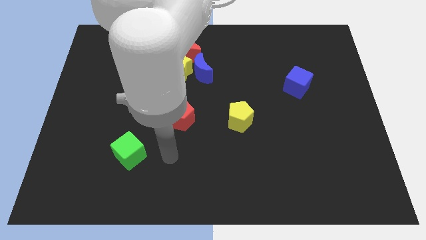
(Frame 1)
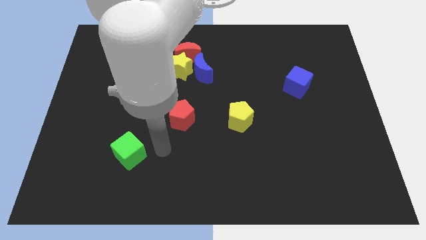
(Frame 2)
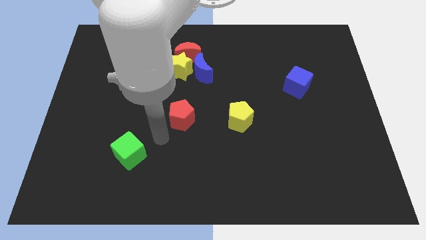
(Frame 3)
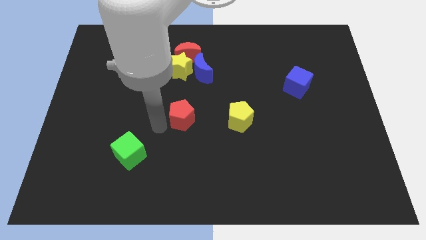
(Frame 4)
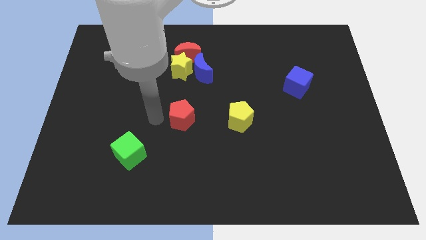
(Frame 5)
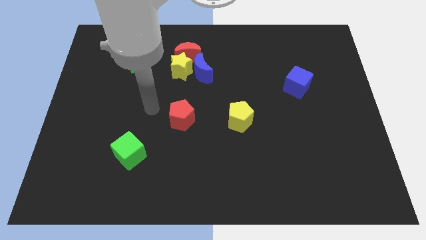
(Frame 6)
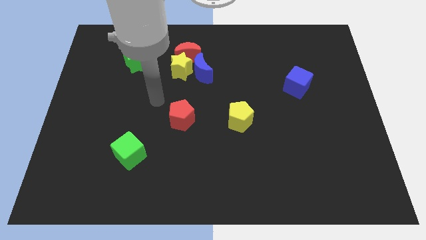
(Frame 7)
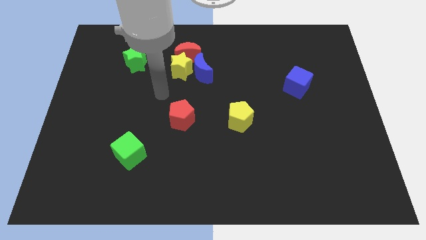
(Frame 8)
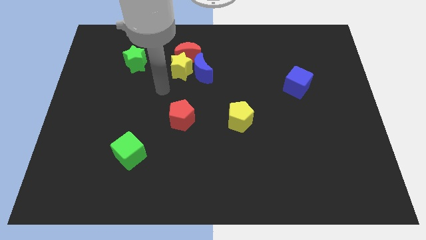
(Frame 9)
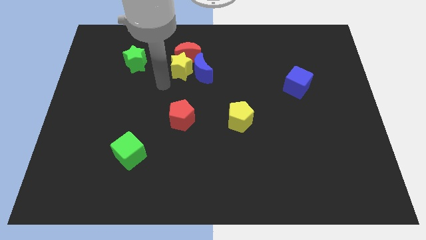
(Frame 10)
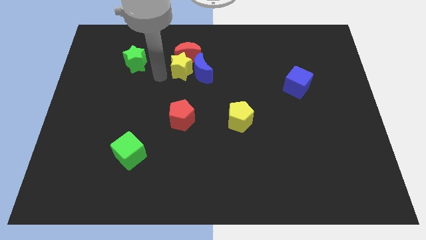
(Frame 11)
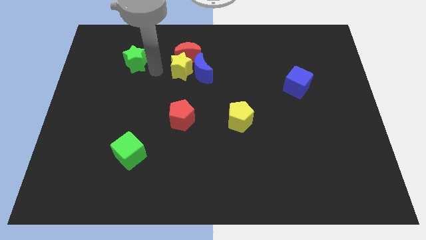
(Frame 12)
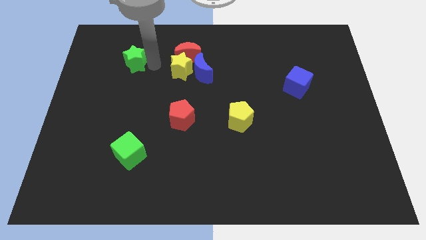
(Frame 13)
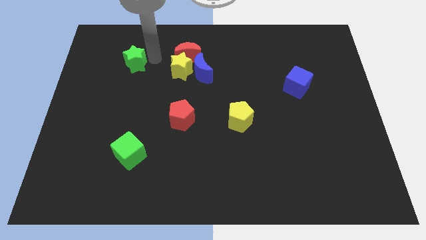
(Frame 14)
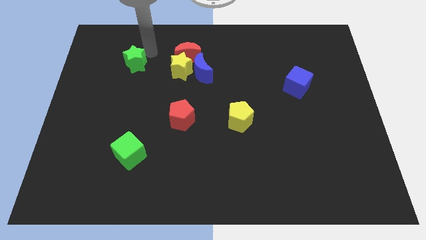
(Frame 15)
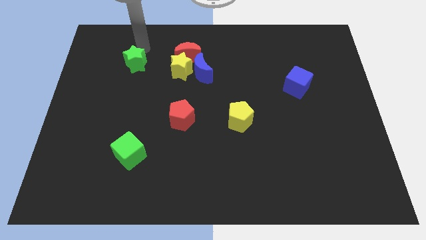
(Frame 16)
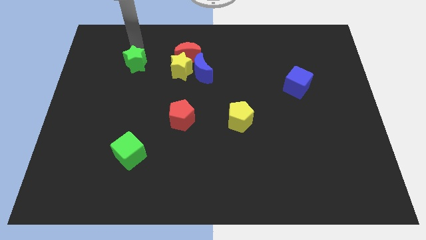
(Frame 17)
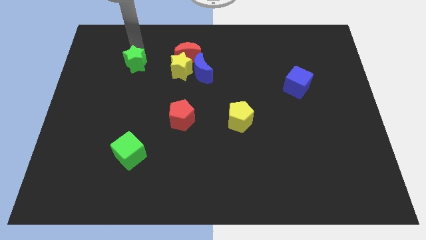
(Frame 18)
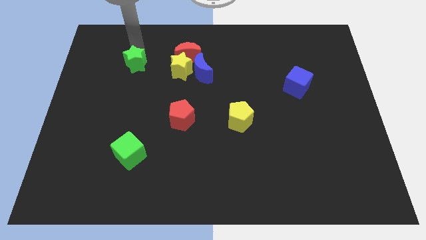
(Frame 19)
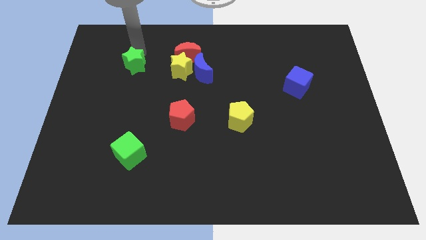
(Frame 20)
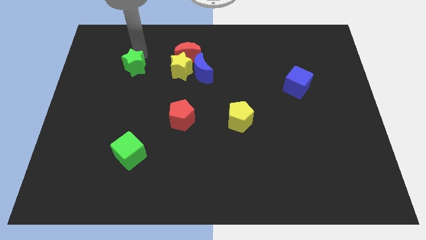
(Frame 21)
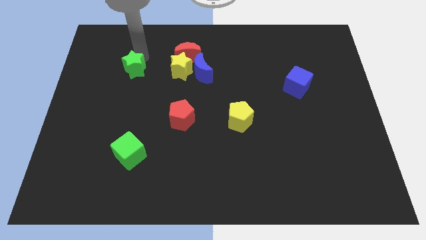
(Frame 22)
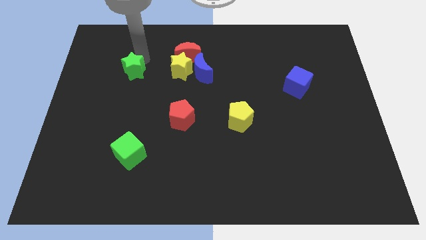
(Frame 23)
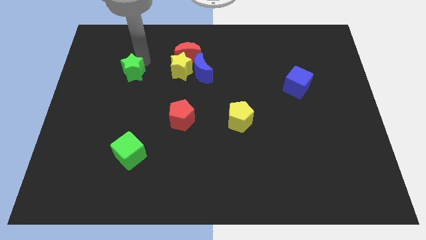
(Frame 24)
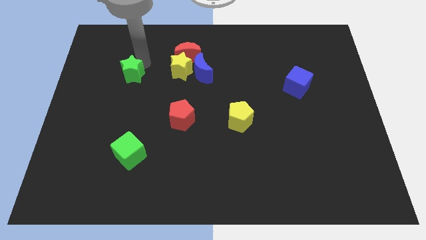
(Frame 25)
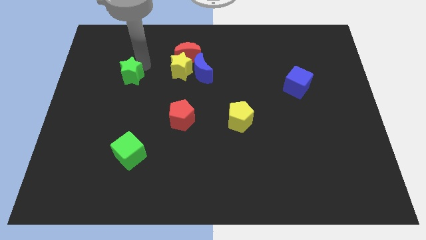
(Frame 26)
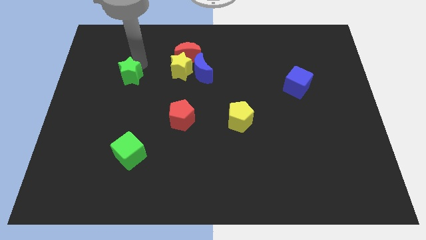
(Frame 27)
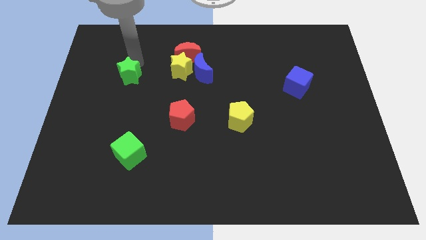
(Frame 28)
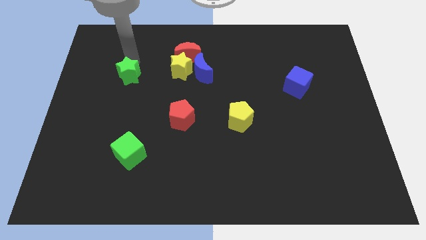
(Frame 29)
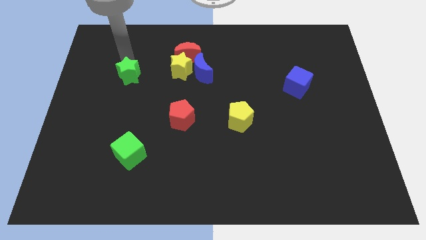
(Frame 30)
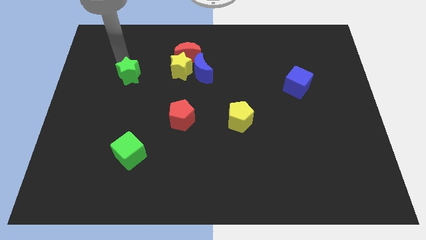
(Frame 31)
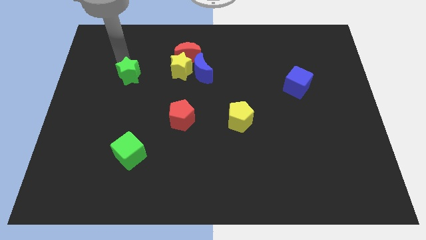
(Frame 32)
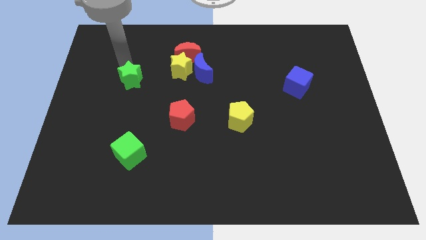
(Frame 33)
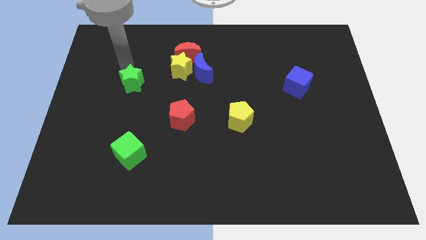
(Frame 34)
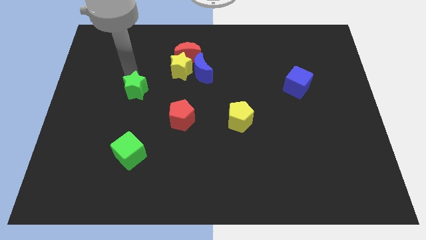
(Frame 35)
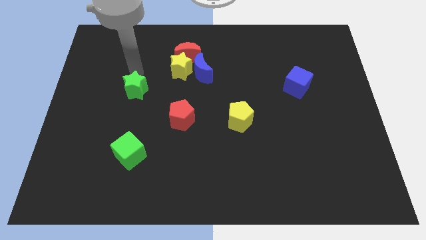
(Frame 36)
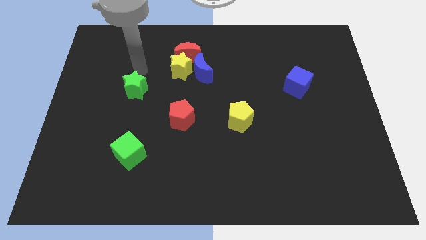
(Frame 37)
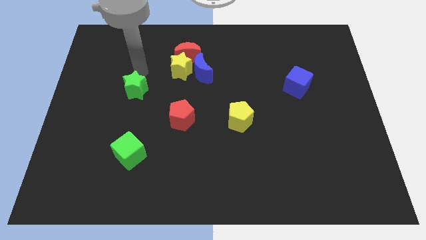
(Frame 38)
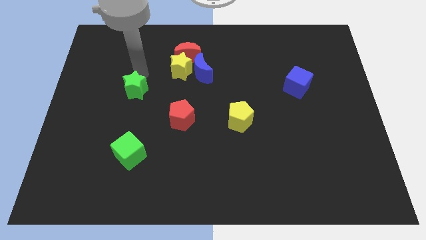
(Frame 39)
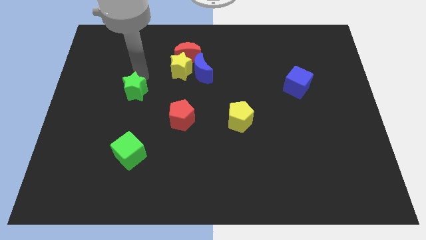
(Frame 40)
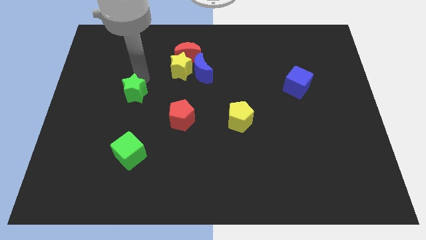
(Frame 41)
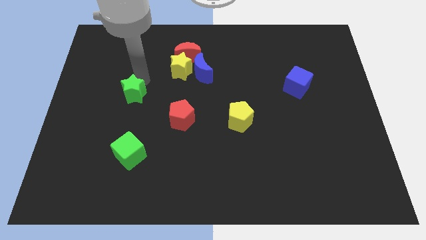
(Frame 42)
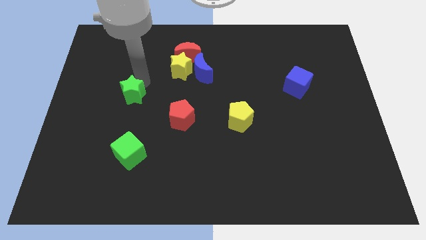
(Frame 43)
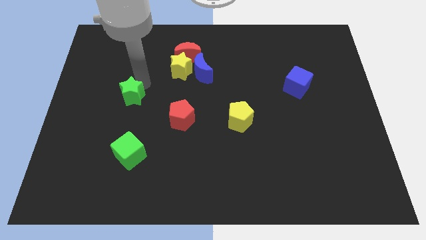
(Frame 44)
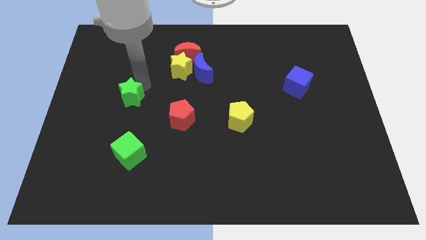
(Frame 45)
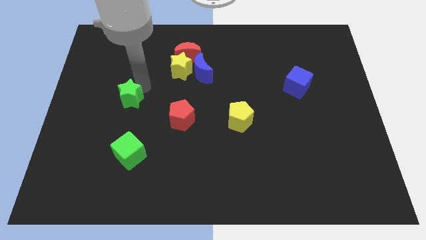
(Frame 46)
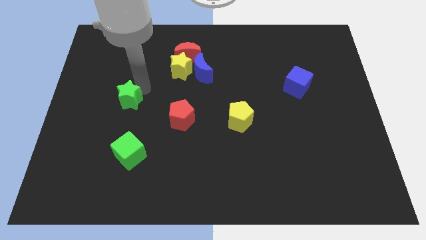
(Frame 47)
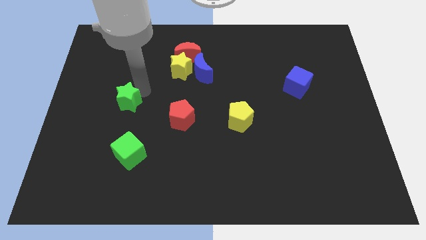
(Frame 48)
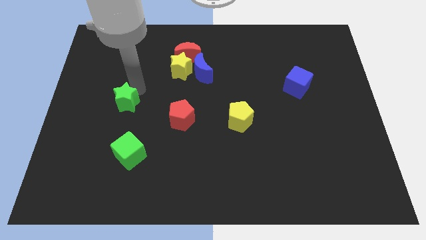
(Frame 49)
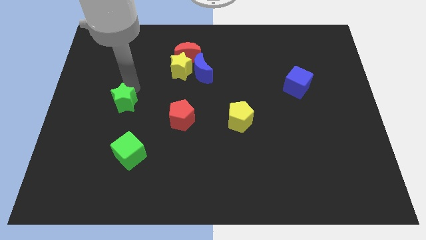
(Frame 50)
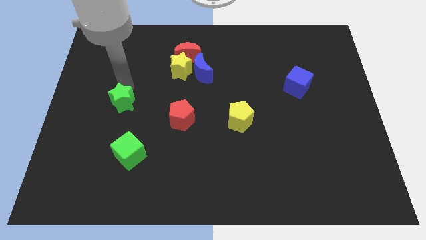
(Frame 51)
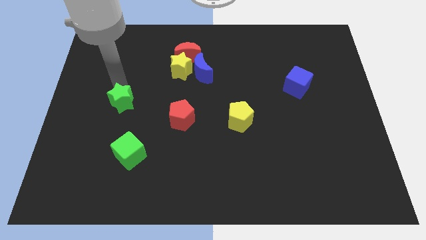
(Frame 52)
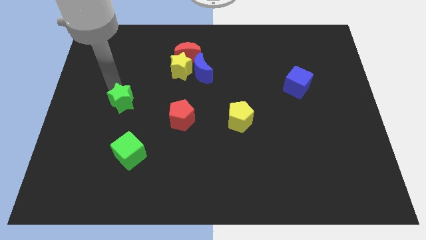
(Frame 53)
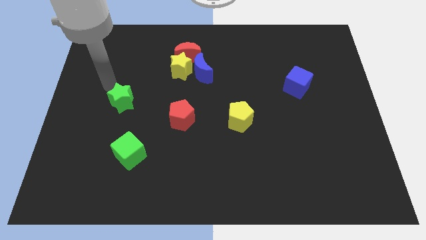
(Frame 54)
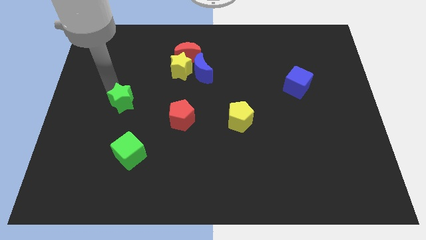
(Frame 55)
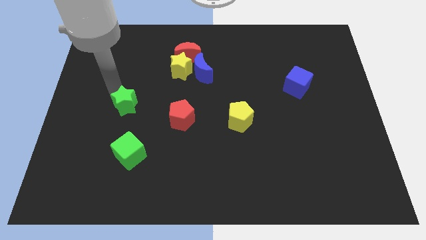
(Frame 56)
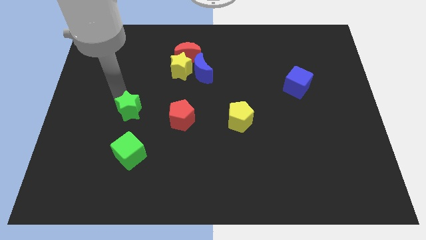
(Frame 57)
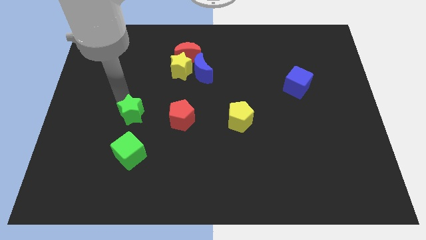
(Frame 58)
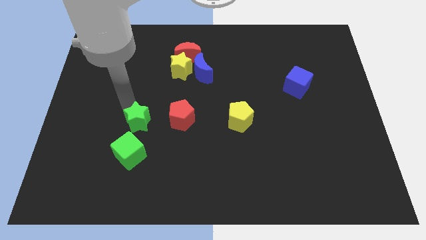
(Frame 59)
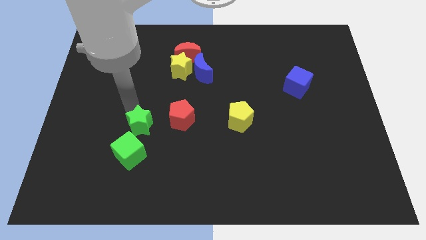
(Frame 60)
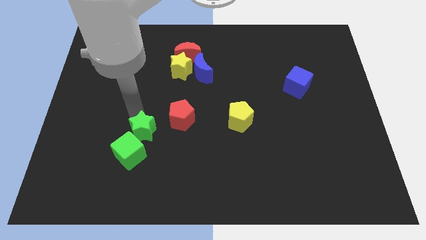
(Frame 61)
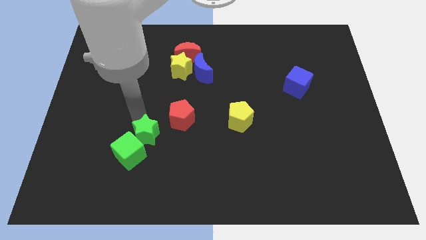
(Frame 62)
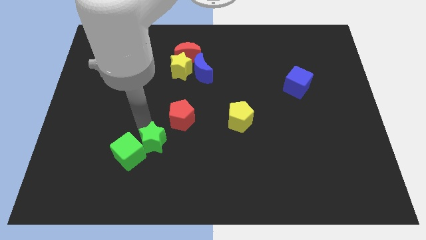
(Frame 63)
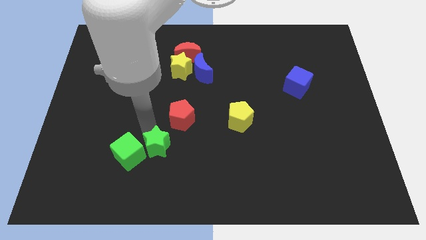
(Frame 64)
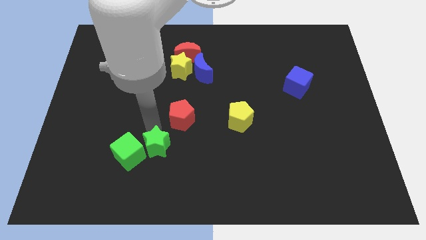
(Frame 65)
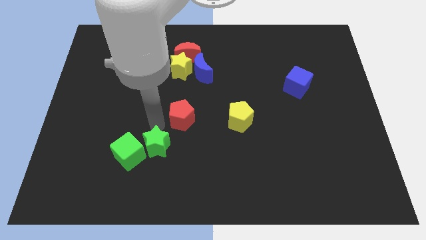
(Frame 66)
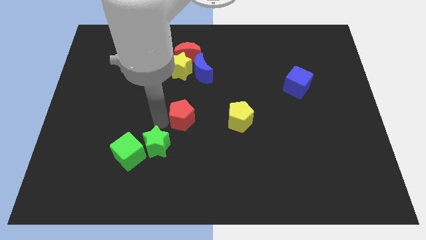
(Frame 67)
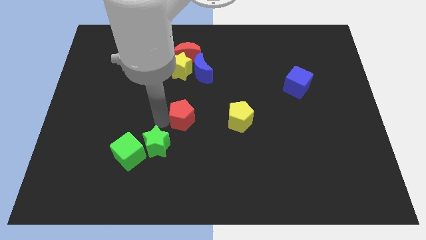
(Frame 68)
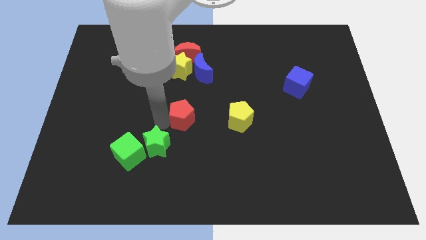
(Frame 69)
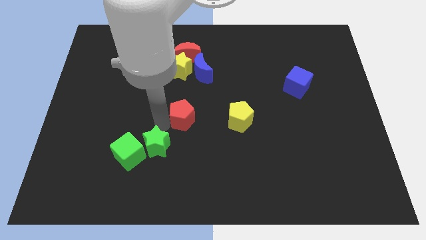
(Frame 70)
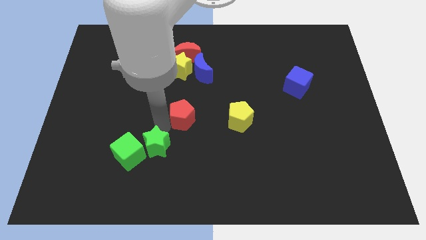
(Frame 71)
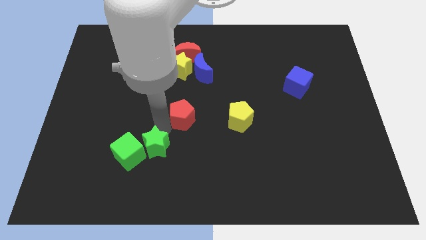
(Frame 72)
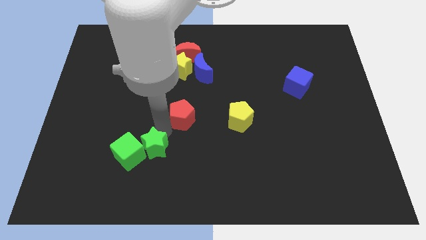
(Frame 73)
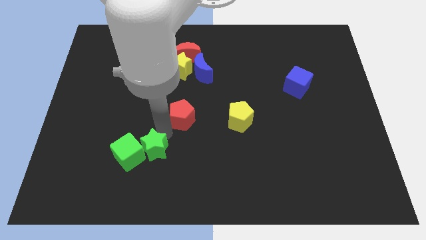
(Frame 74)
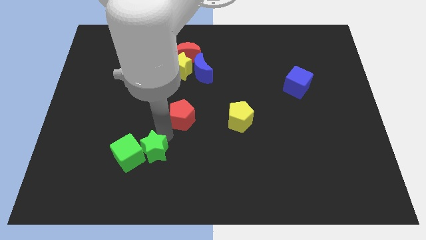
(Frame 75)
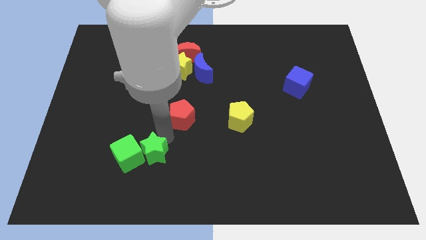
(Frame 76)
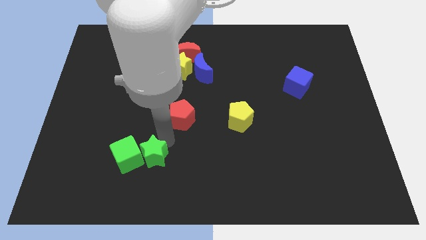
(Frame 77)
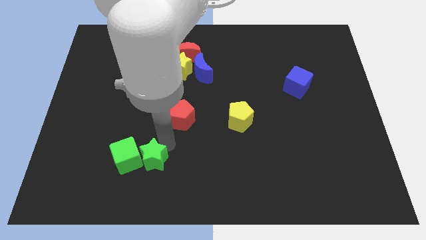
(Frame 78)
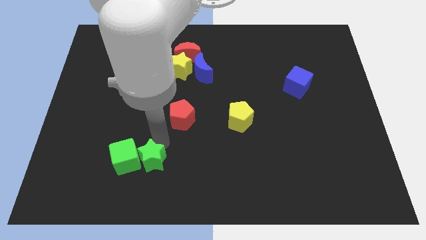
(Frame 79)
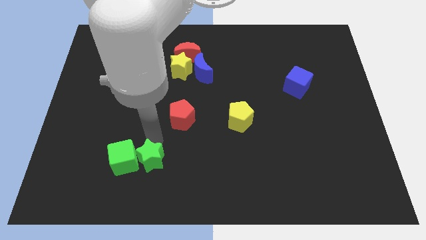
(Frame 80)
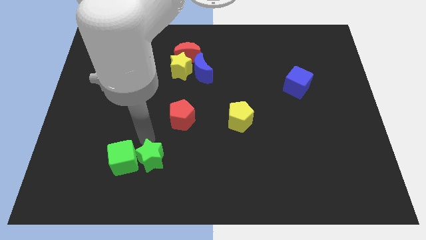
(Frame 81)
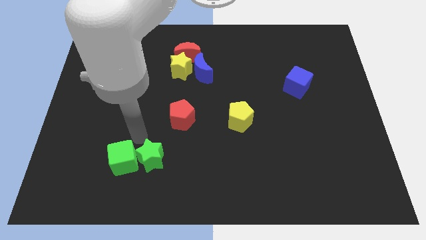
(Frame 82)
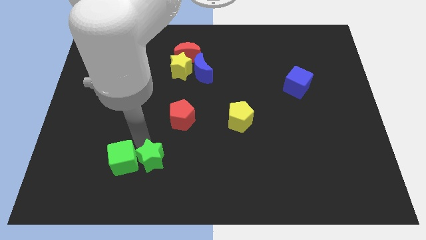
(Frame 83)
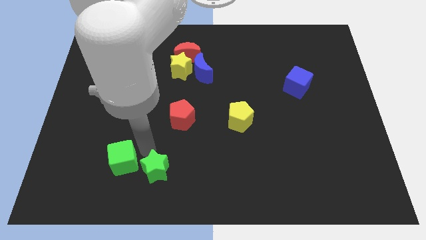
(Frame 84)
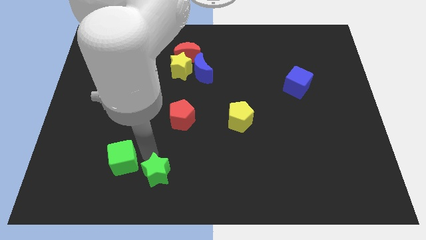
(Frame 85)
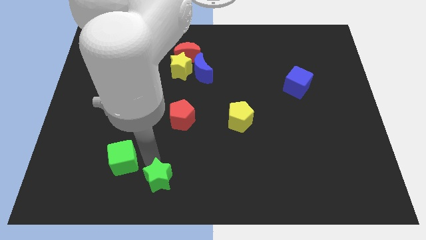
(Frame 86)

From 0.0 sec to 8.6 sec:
push the green star to the bottom
